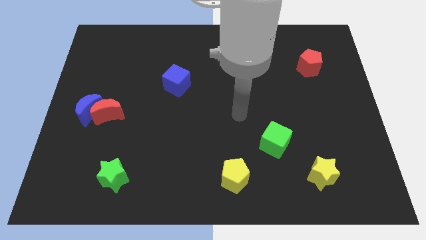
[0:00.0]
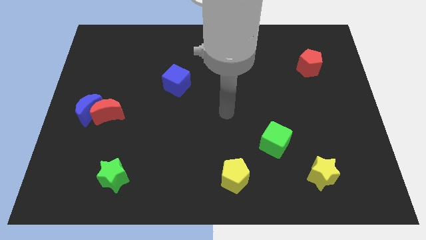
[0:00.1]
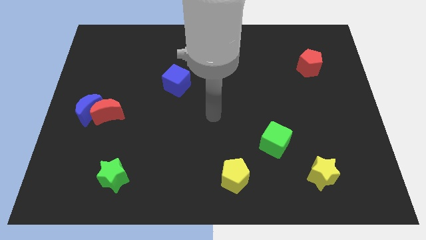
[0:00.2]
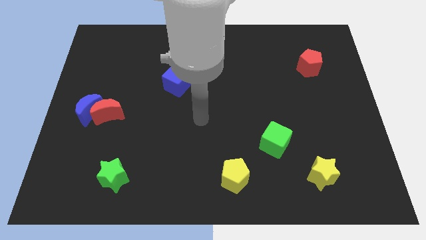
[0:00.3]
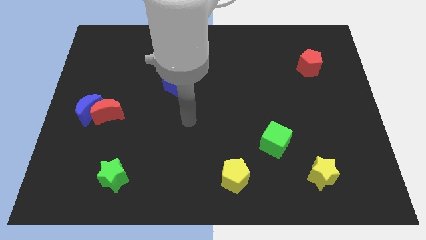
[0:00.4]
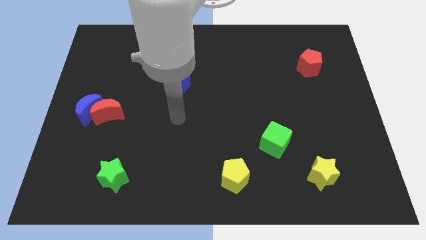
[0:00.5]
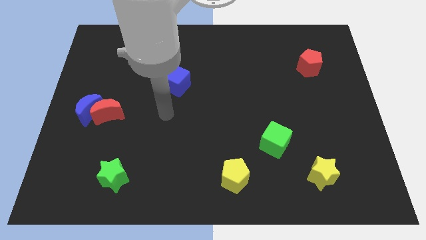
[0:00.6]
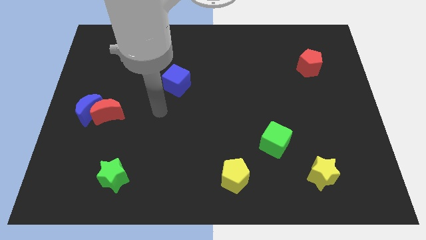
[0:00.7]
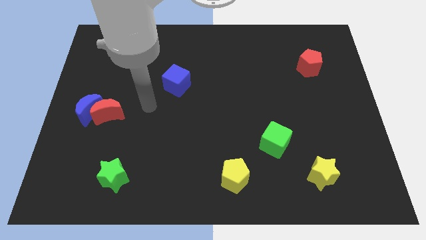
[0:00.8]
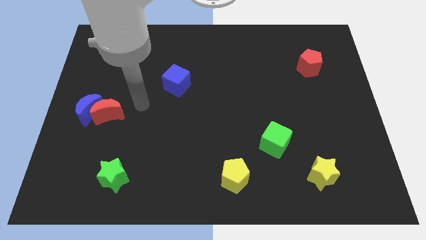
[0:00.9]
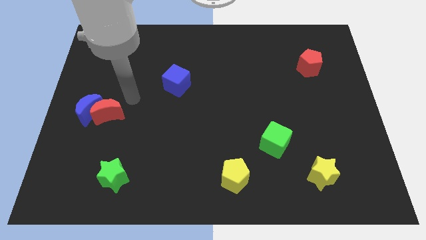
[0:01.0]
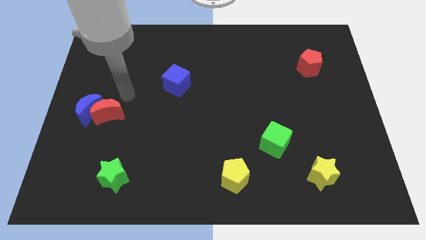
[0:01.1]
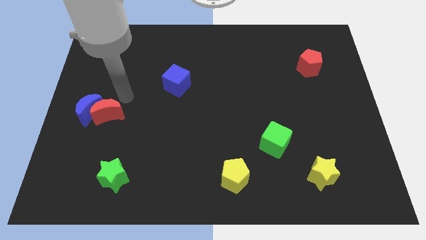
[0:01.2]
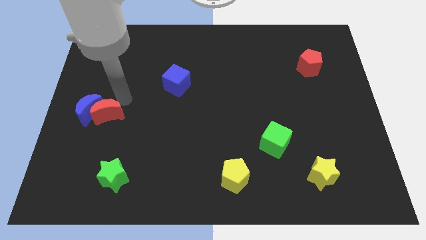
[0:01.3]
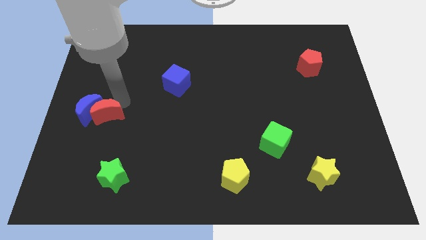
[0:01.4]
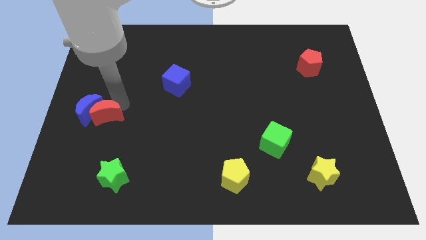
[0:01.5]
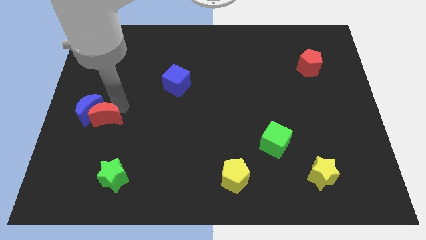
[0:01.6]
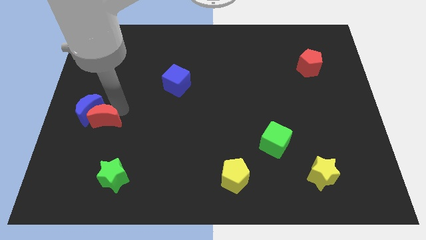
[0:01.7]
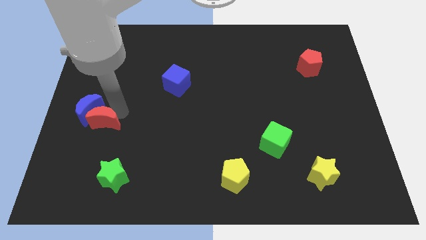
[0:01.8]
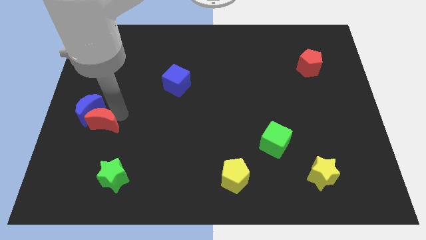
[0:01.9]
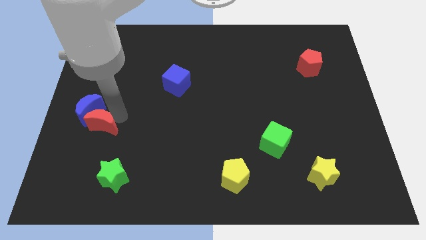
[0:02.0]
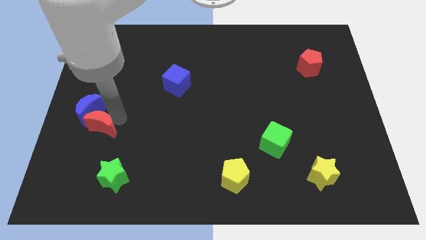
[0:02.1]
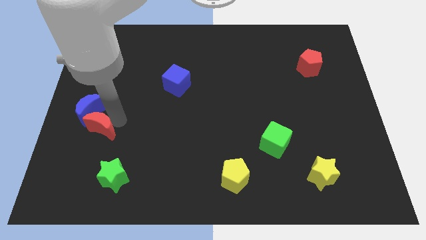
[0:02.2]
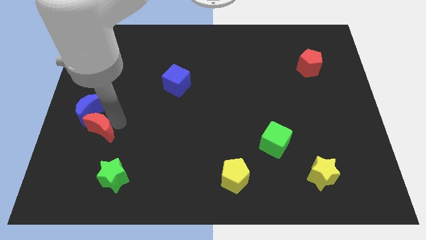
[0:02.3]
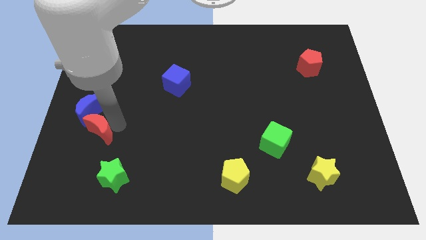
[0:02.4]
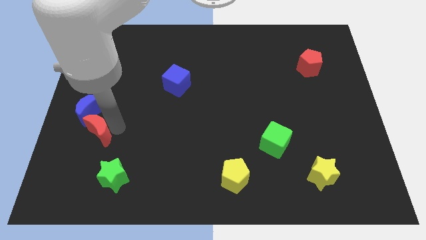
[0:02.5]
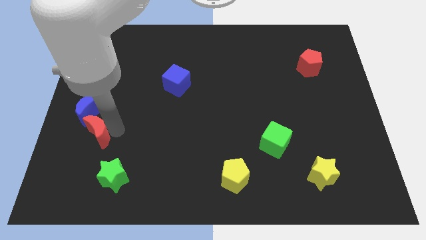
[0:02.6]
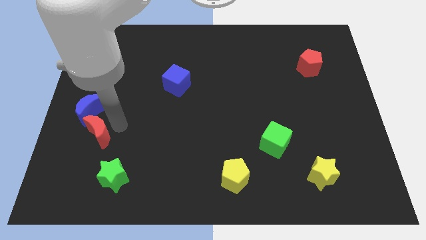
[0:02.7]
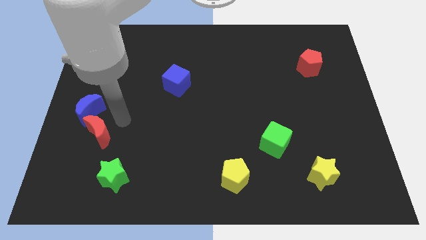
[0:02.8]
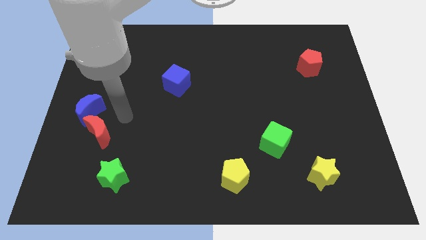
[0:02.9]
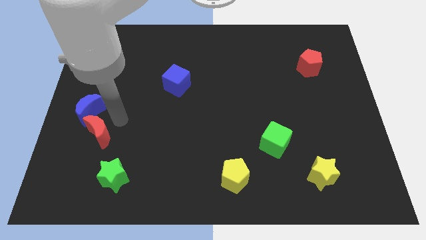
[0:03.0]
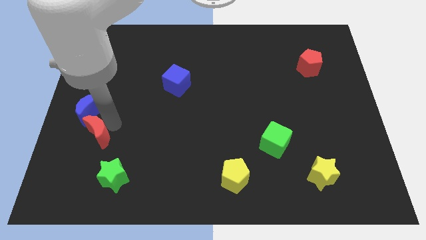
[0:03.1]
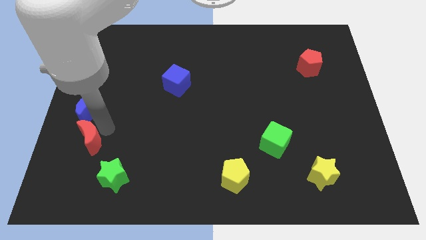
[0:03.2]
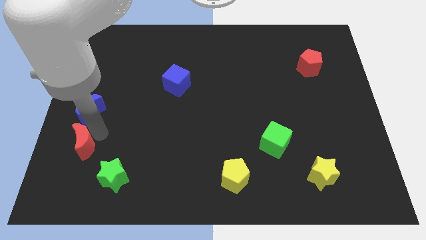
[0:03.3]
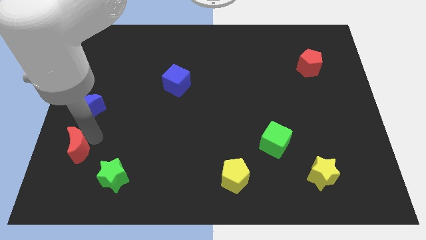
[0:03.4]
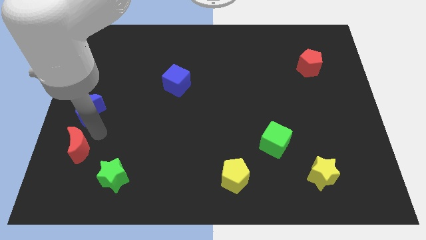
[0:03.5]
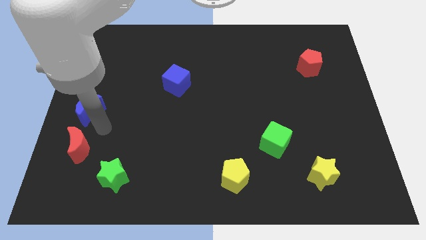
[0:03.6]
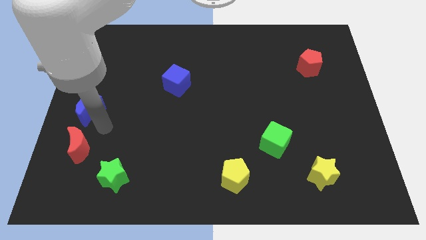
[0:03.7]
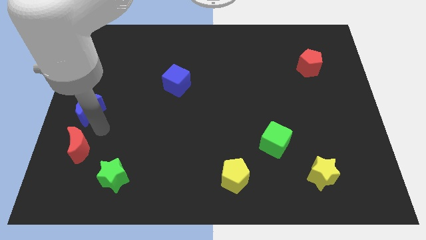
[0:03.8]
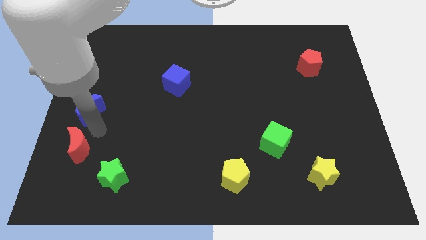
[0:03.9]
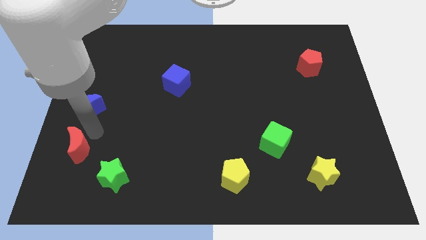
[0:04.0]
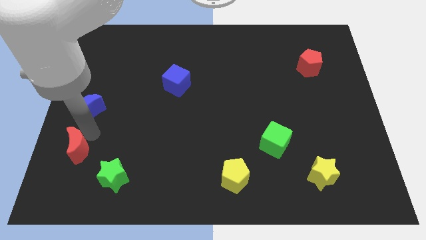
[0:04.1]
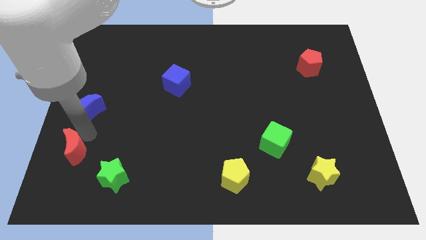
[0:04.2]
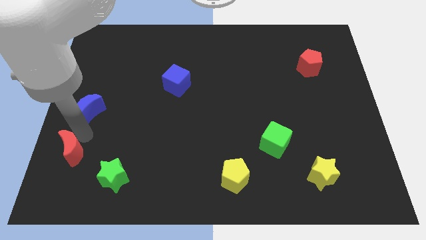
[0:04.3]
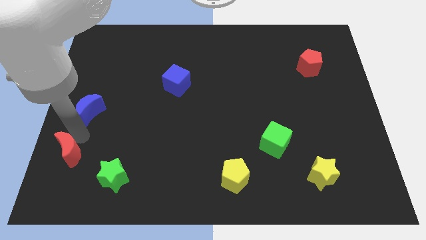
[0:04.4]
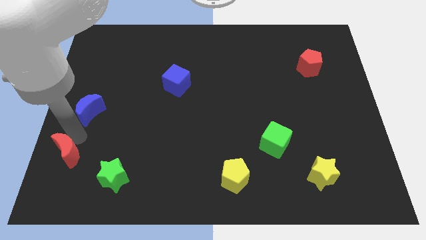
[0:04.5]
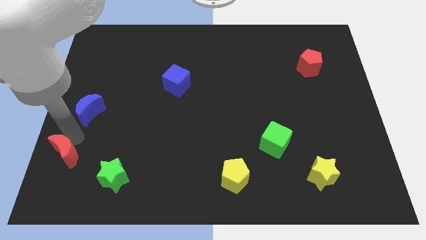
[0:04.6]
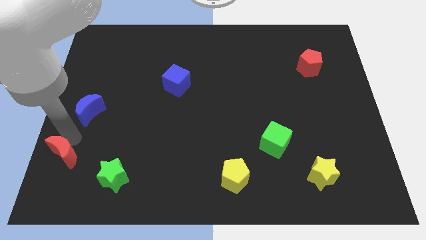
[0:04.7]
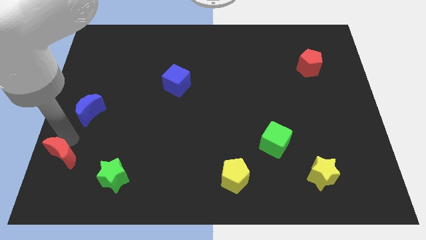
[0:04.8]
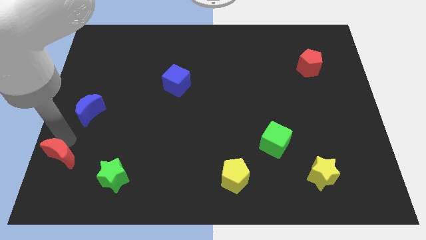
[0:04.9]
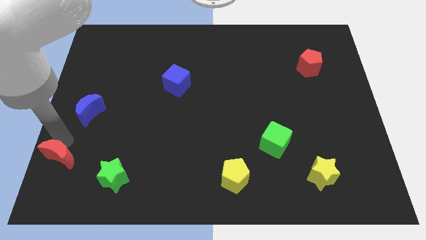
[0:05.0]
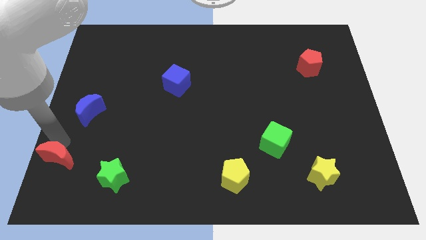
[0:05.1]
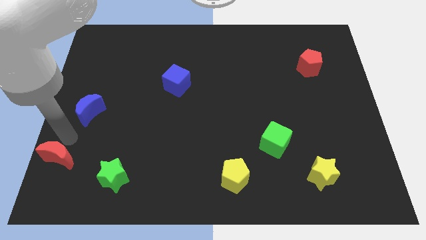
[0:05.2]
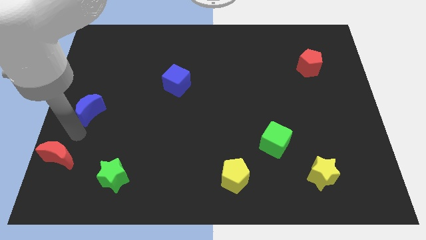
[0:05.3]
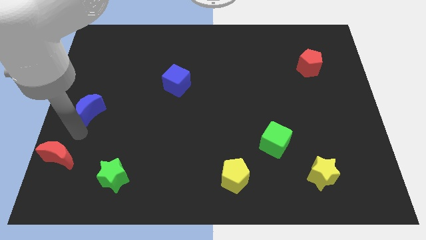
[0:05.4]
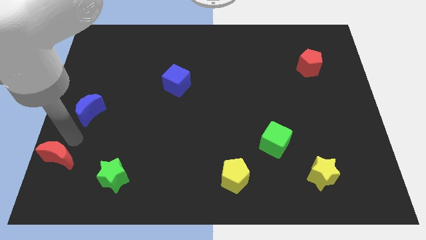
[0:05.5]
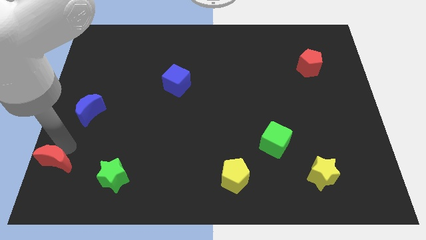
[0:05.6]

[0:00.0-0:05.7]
put the red moon to the bottom left of the board

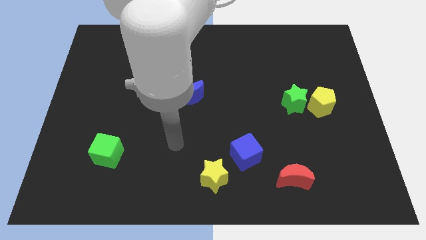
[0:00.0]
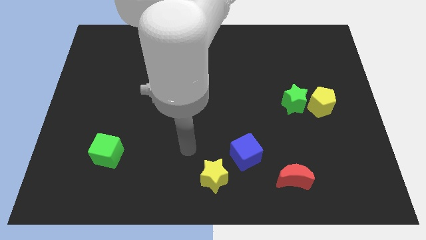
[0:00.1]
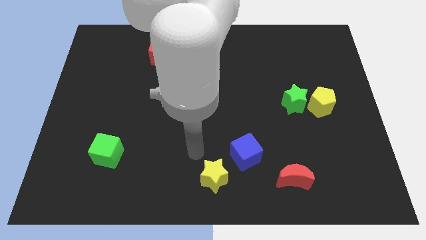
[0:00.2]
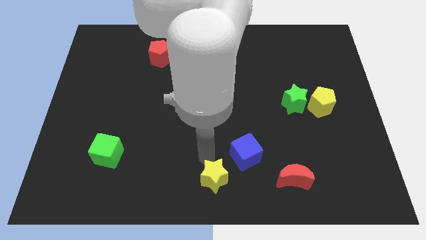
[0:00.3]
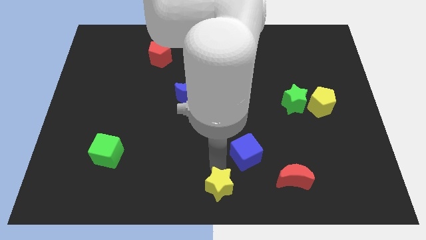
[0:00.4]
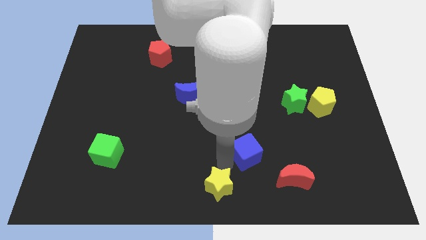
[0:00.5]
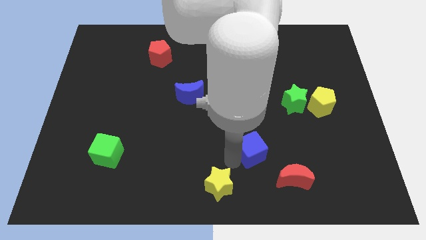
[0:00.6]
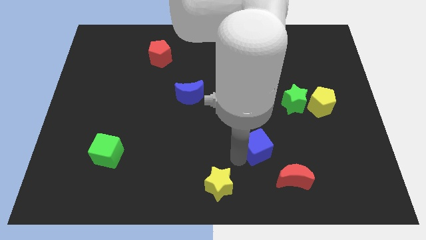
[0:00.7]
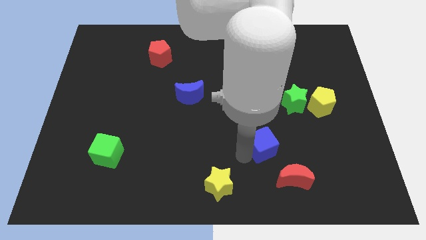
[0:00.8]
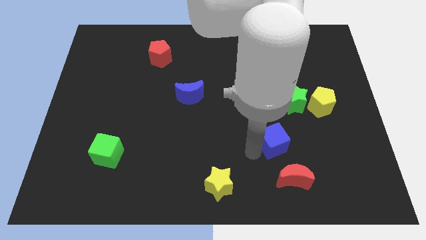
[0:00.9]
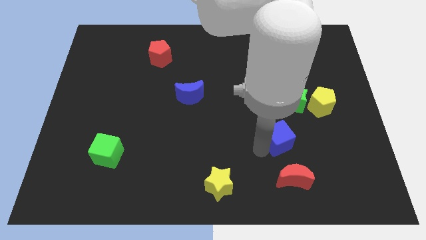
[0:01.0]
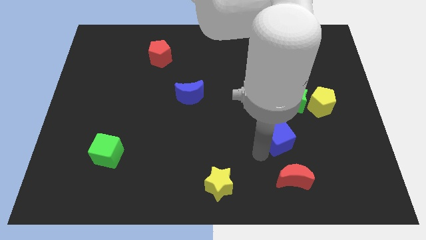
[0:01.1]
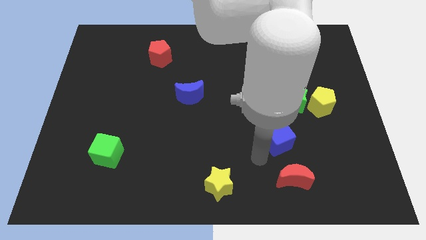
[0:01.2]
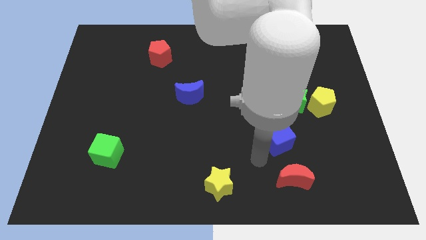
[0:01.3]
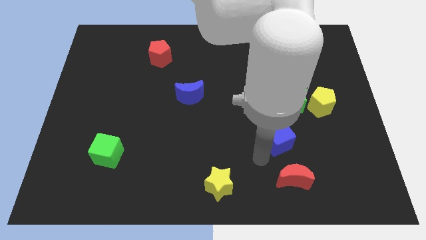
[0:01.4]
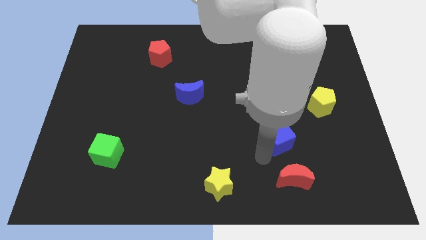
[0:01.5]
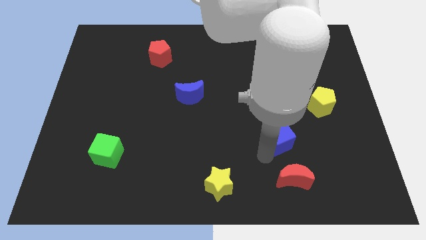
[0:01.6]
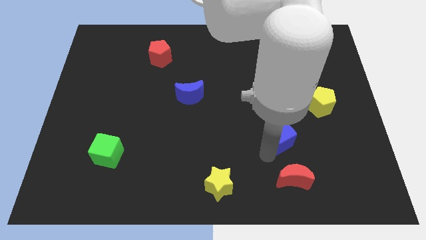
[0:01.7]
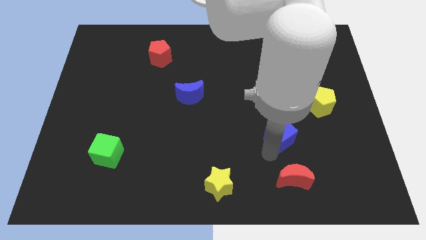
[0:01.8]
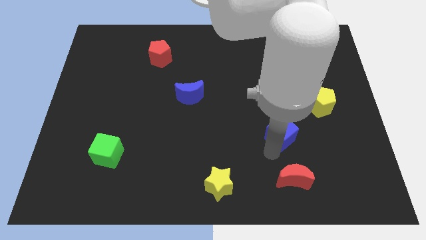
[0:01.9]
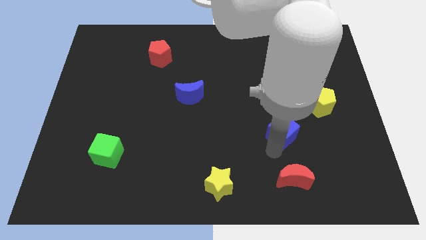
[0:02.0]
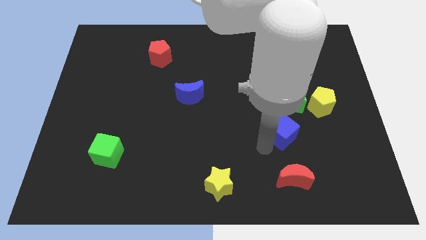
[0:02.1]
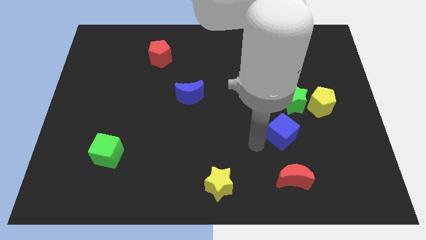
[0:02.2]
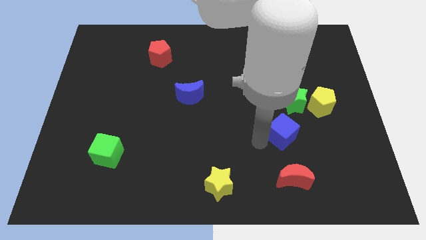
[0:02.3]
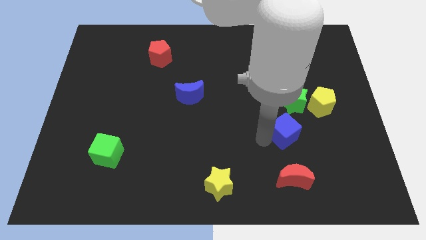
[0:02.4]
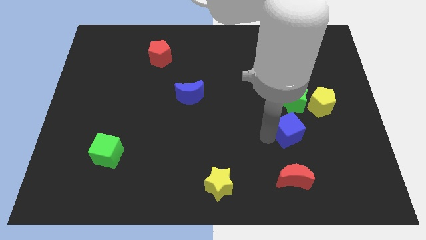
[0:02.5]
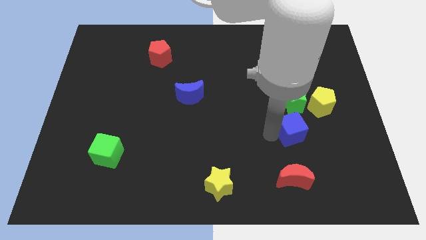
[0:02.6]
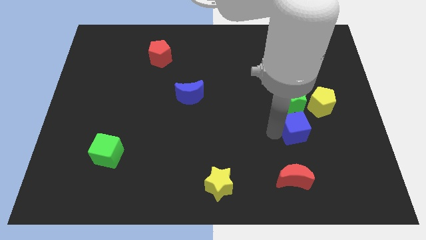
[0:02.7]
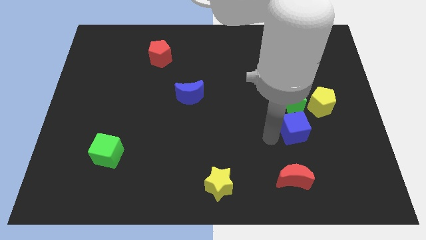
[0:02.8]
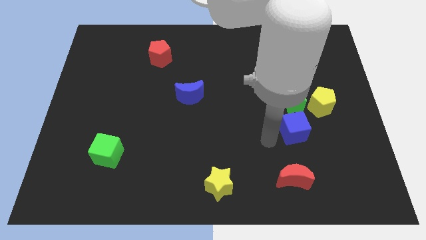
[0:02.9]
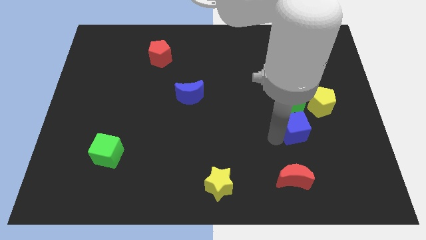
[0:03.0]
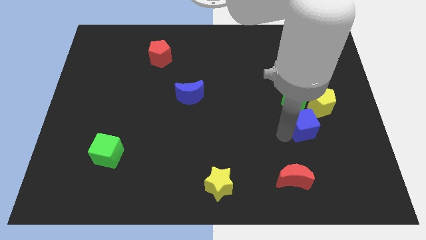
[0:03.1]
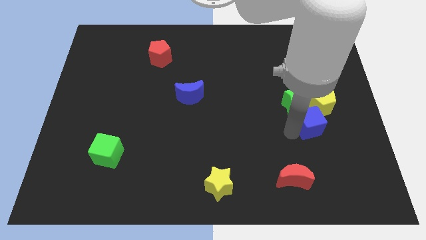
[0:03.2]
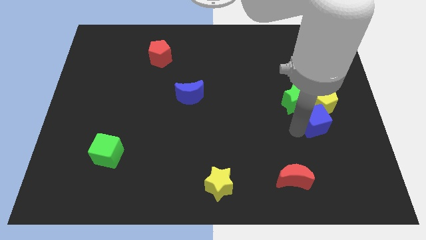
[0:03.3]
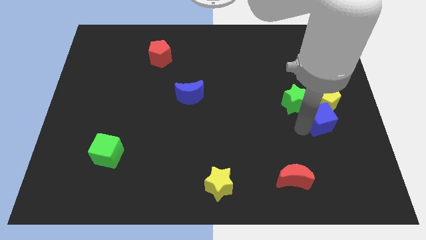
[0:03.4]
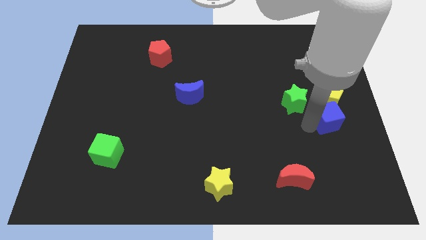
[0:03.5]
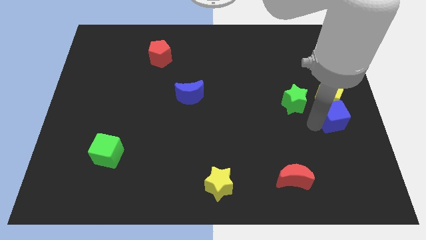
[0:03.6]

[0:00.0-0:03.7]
slide the blue cube to the right side
